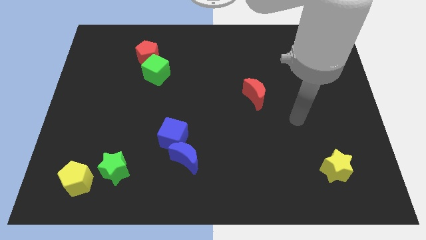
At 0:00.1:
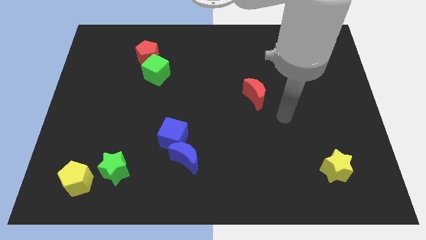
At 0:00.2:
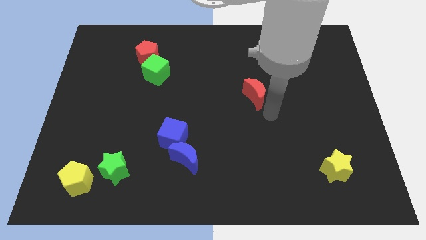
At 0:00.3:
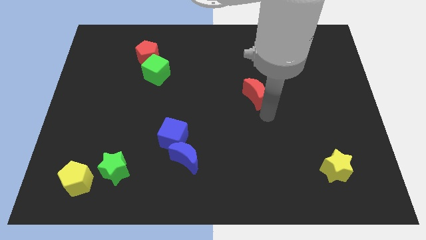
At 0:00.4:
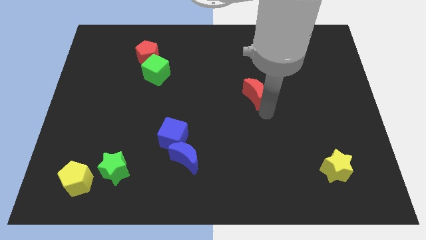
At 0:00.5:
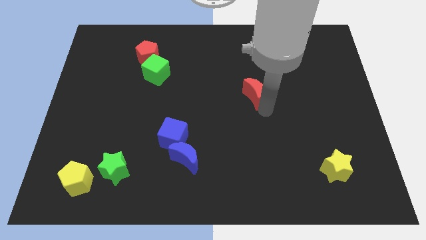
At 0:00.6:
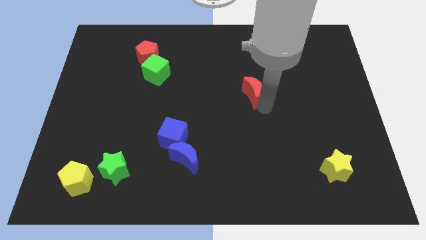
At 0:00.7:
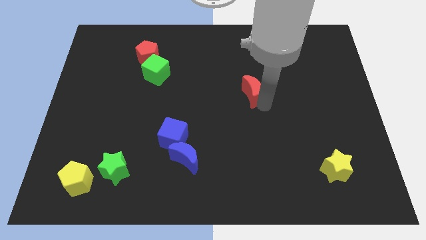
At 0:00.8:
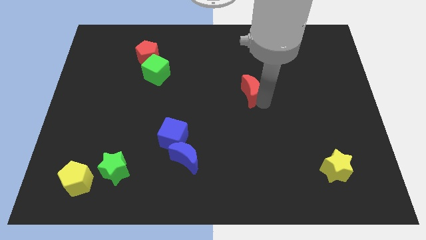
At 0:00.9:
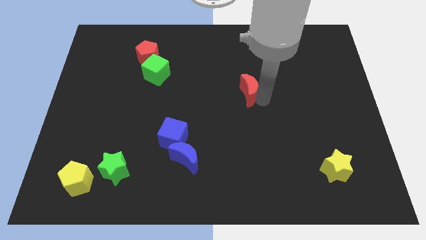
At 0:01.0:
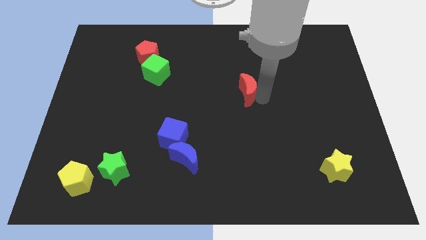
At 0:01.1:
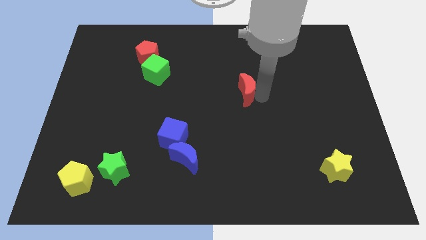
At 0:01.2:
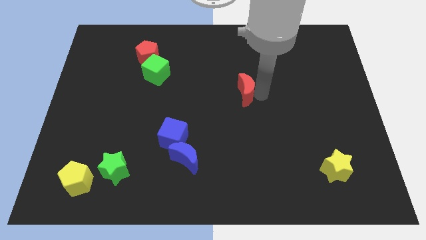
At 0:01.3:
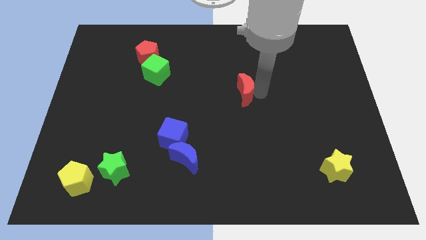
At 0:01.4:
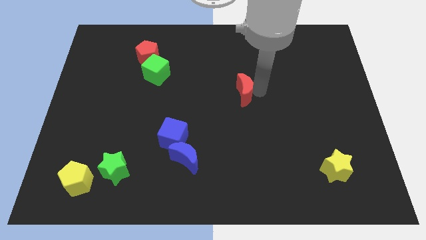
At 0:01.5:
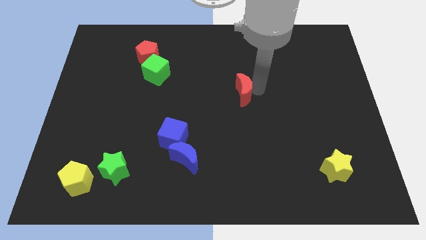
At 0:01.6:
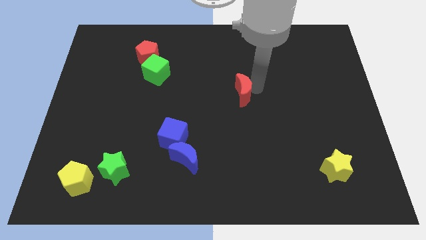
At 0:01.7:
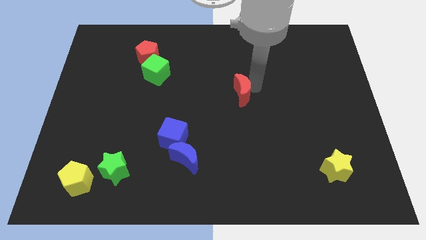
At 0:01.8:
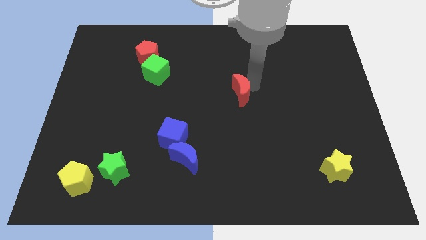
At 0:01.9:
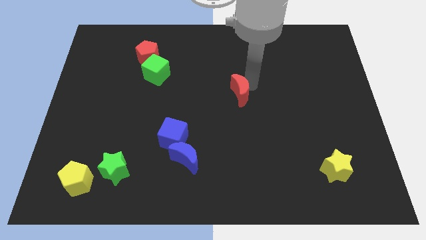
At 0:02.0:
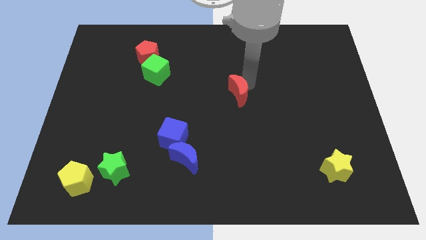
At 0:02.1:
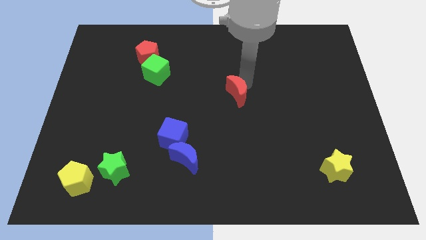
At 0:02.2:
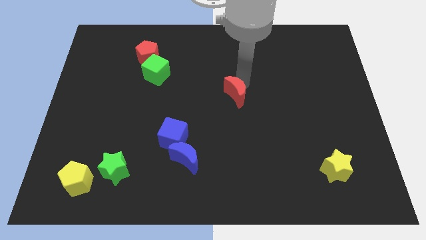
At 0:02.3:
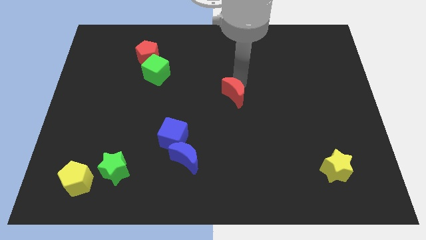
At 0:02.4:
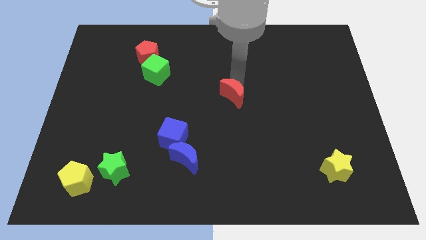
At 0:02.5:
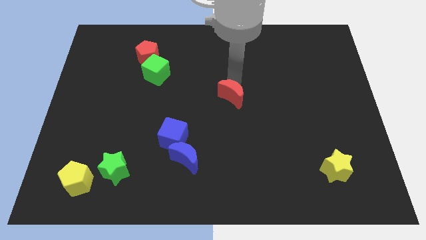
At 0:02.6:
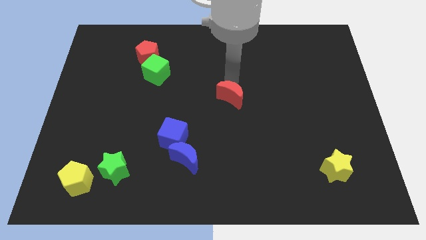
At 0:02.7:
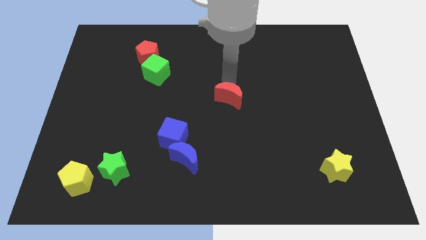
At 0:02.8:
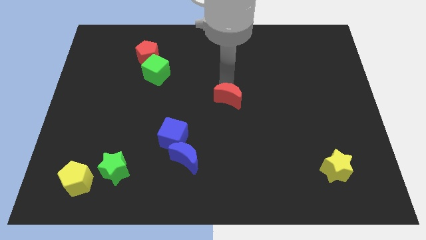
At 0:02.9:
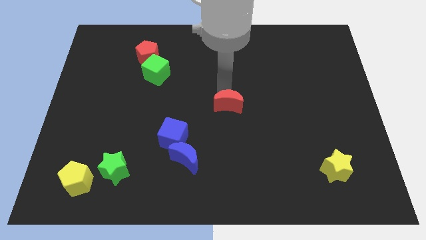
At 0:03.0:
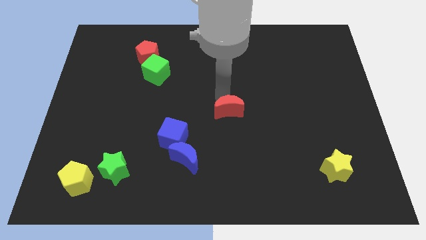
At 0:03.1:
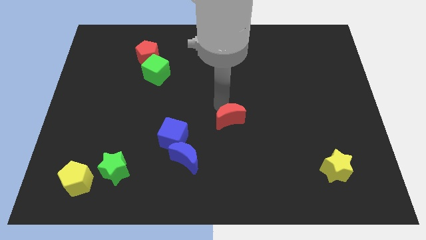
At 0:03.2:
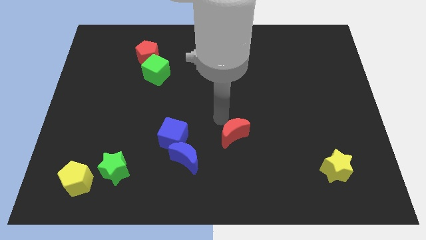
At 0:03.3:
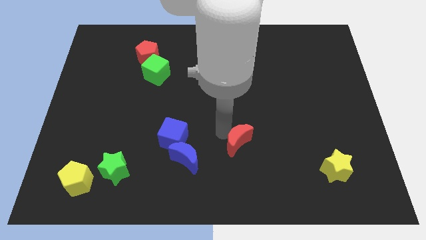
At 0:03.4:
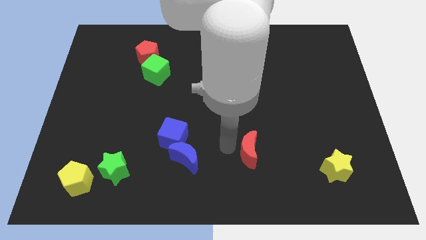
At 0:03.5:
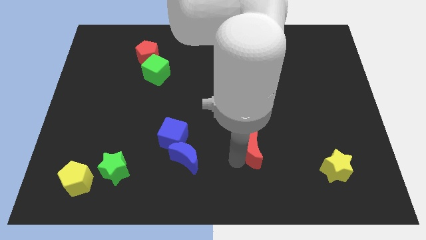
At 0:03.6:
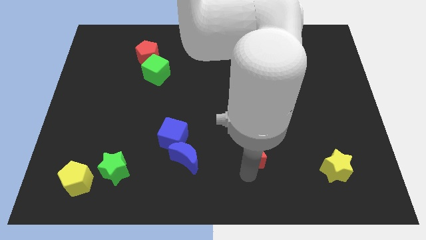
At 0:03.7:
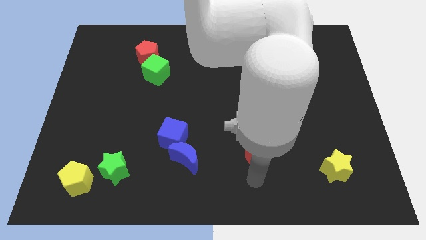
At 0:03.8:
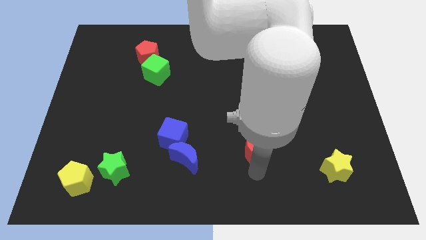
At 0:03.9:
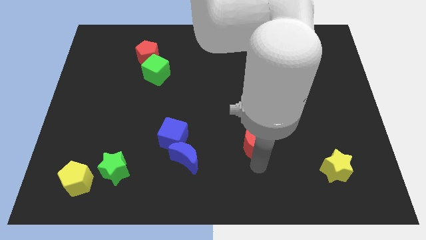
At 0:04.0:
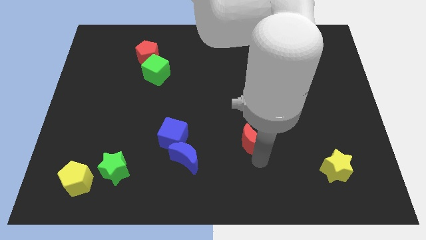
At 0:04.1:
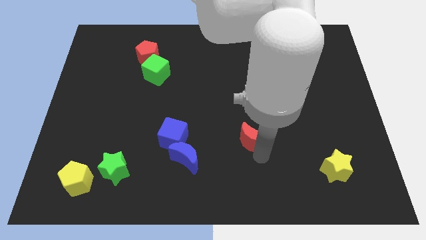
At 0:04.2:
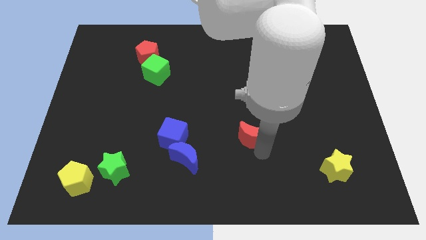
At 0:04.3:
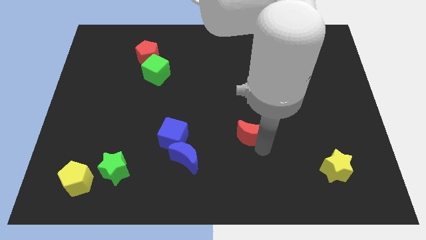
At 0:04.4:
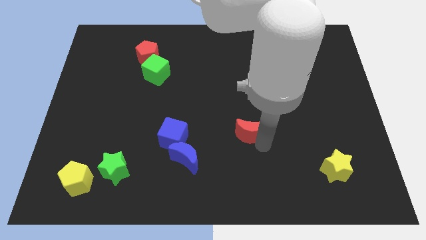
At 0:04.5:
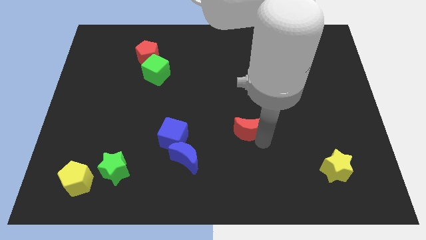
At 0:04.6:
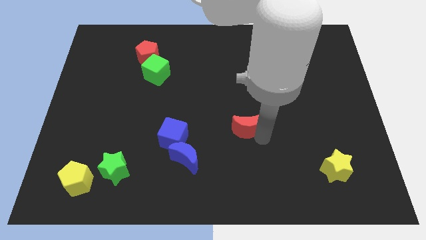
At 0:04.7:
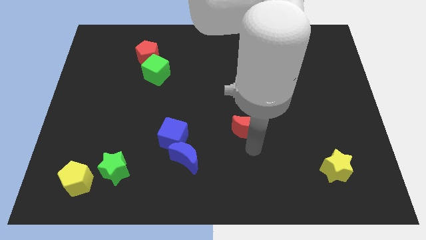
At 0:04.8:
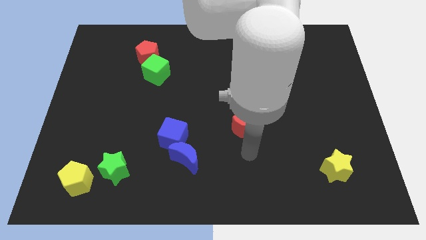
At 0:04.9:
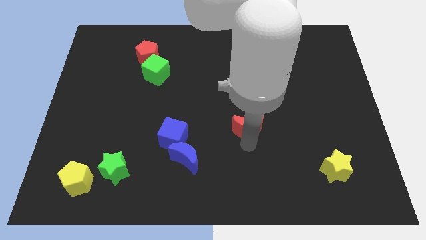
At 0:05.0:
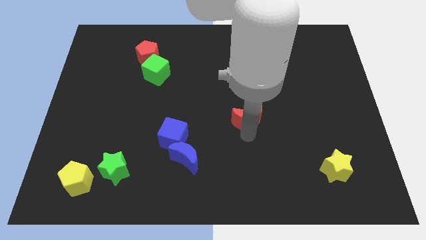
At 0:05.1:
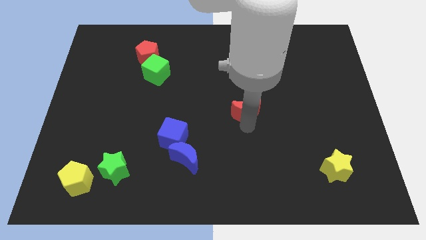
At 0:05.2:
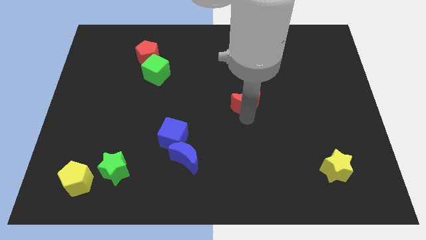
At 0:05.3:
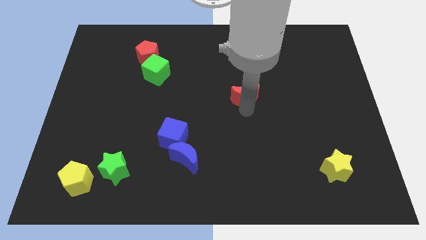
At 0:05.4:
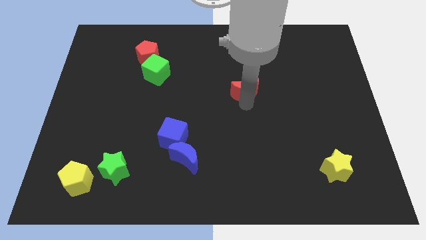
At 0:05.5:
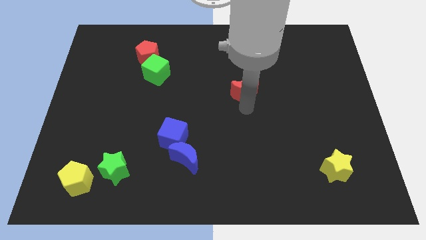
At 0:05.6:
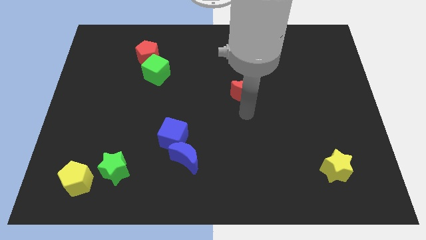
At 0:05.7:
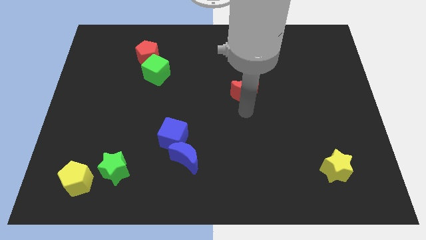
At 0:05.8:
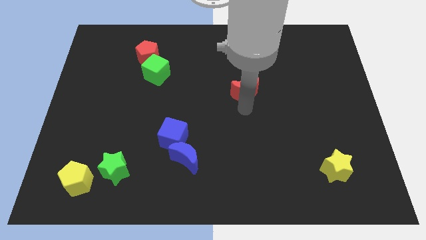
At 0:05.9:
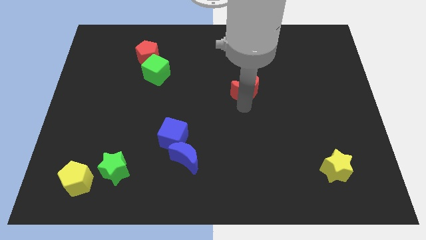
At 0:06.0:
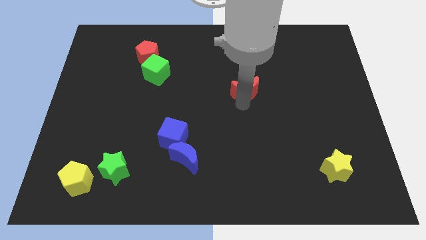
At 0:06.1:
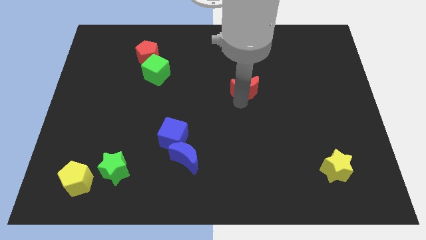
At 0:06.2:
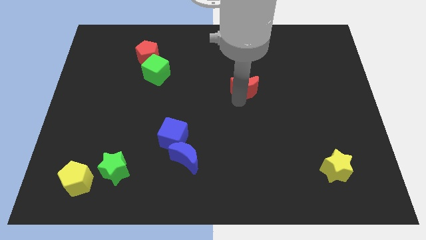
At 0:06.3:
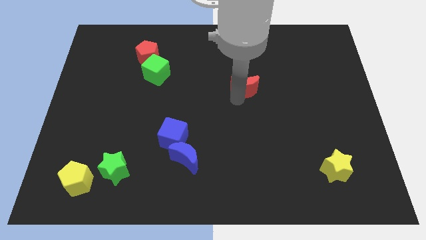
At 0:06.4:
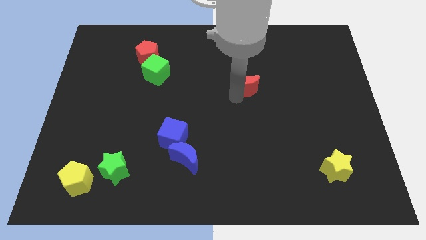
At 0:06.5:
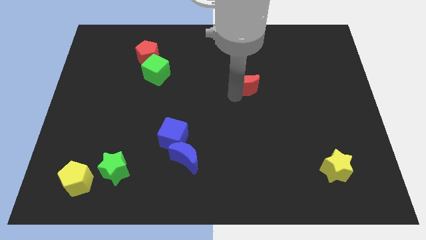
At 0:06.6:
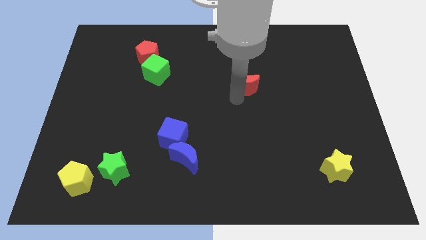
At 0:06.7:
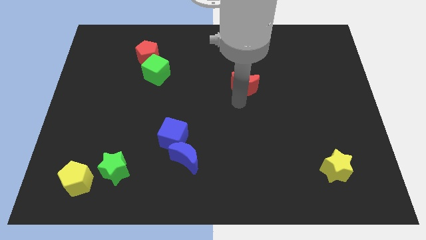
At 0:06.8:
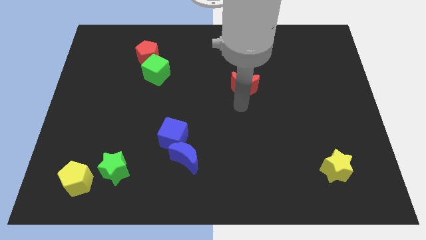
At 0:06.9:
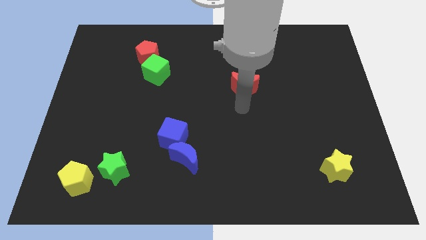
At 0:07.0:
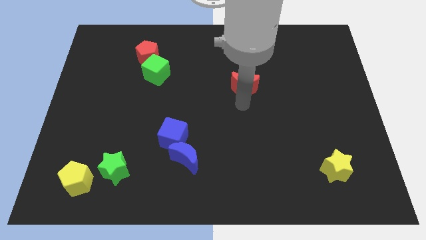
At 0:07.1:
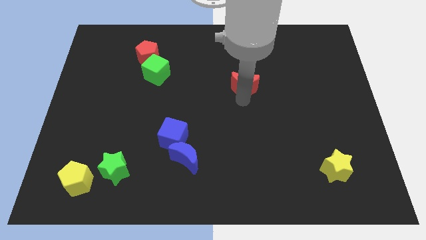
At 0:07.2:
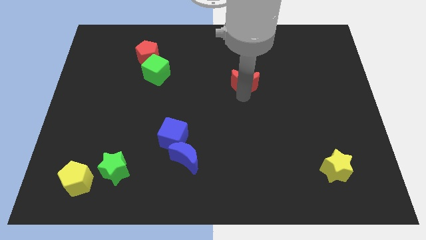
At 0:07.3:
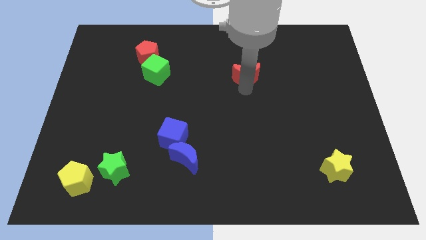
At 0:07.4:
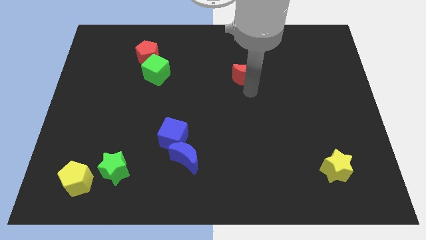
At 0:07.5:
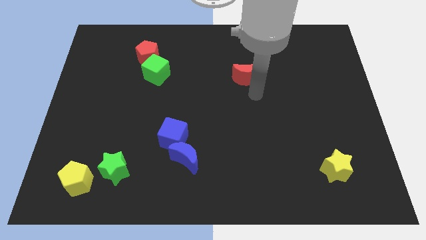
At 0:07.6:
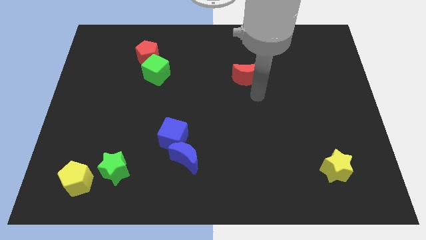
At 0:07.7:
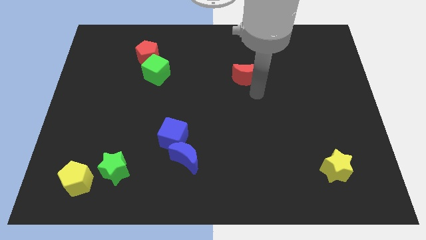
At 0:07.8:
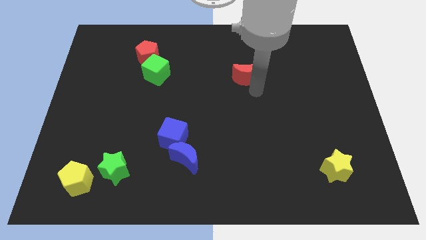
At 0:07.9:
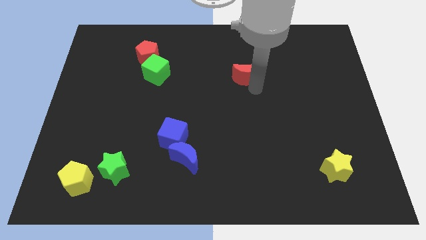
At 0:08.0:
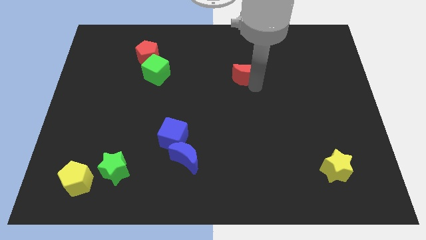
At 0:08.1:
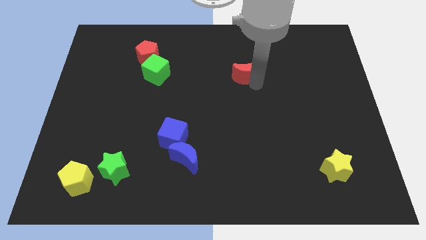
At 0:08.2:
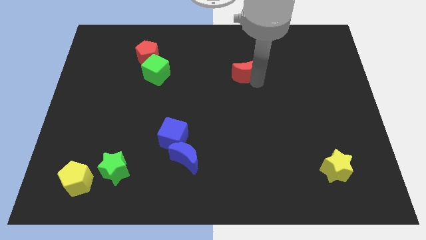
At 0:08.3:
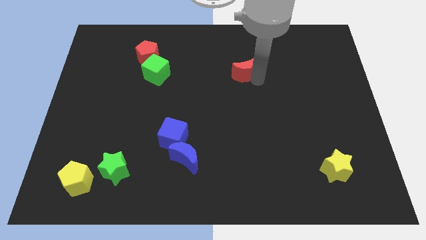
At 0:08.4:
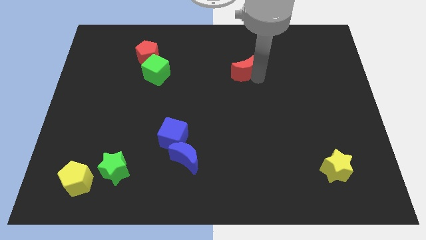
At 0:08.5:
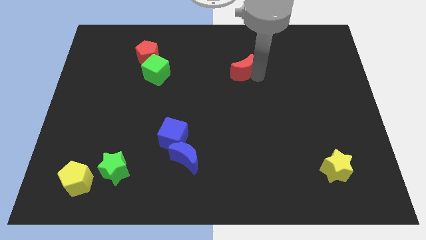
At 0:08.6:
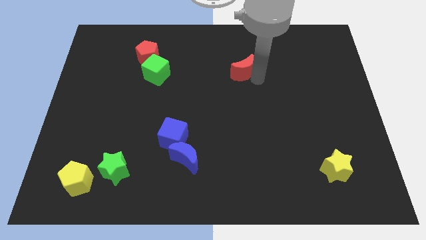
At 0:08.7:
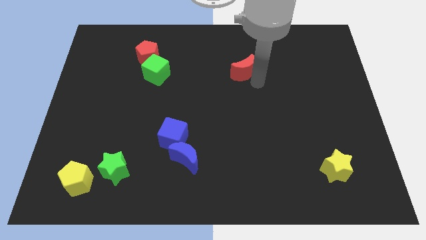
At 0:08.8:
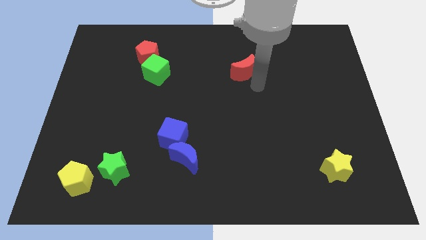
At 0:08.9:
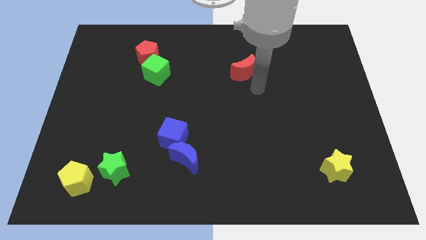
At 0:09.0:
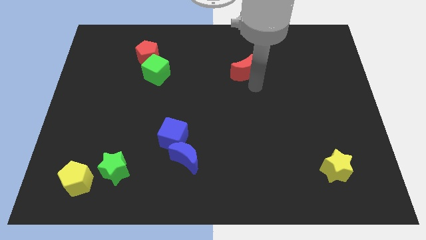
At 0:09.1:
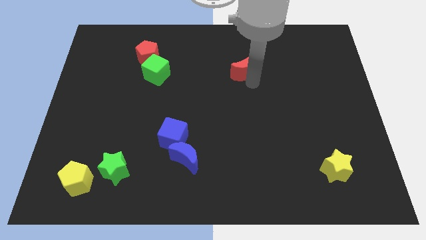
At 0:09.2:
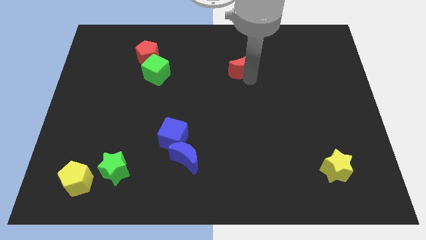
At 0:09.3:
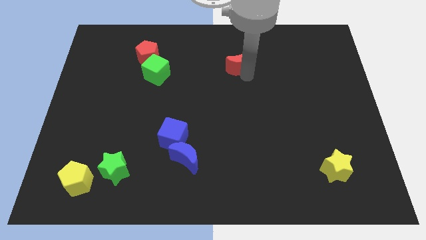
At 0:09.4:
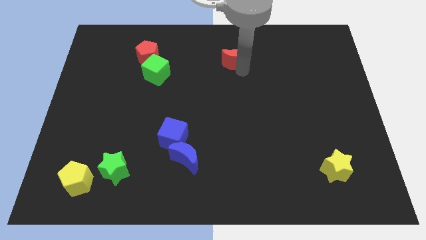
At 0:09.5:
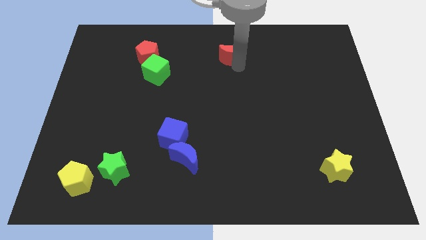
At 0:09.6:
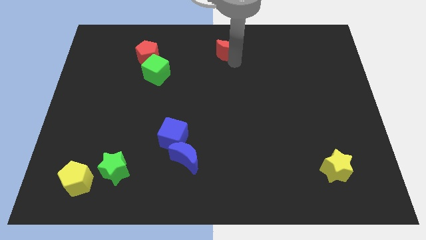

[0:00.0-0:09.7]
slide the red moon to the towards your base
